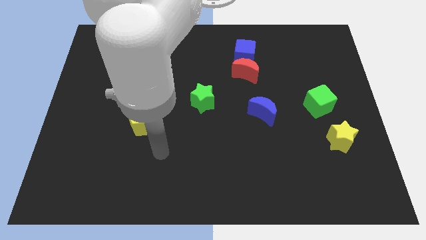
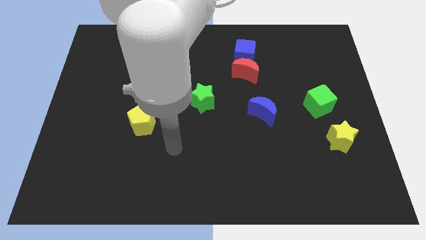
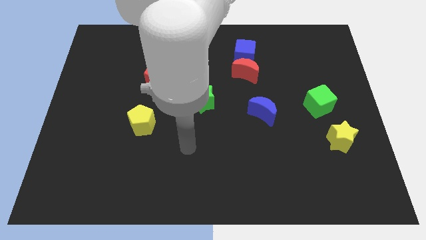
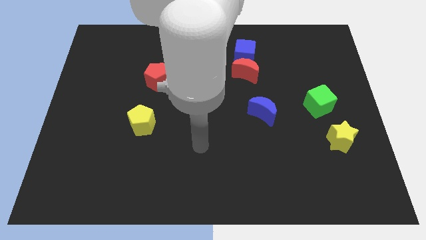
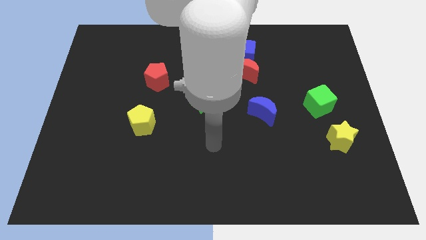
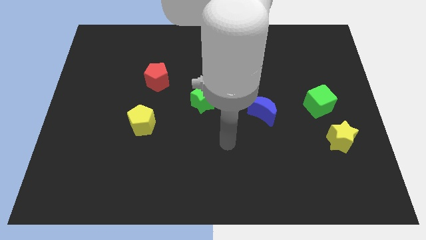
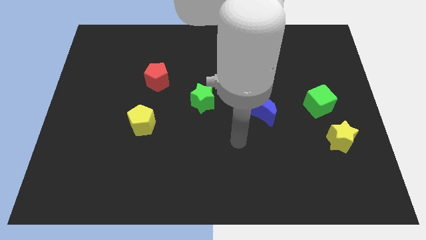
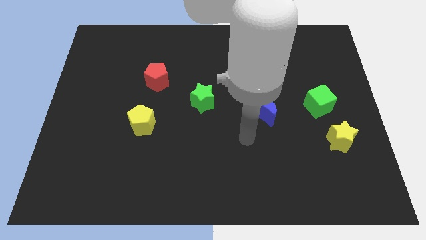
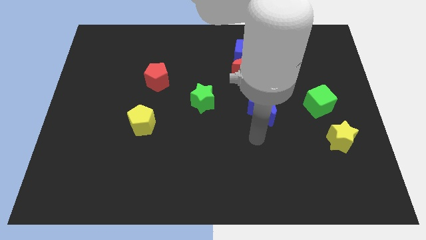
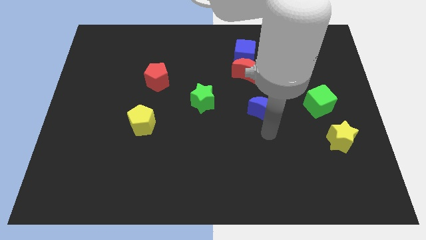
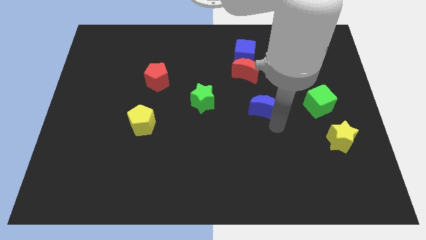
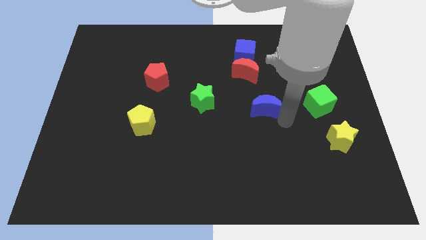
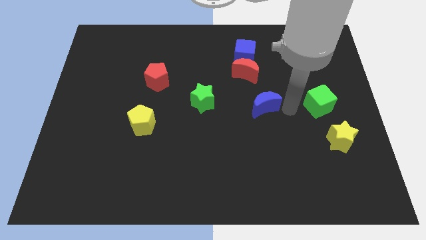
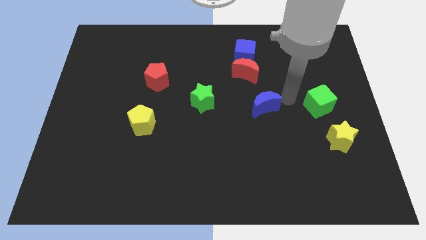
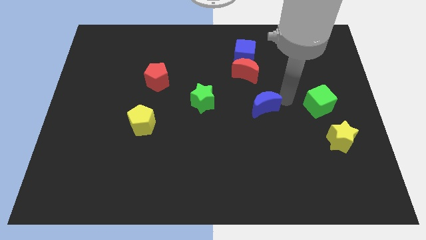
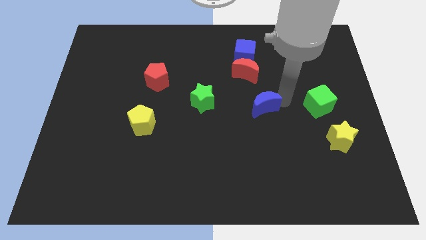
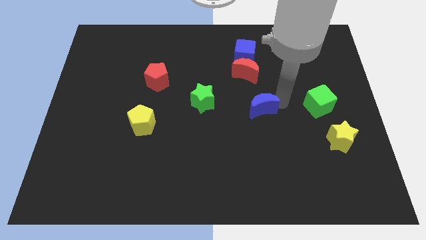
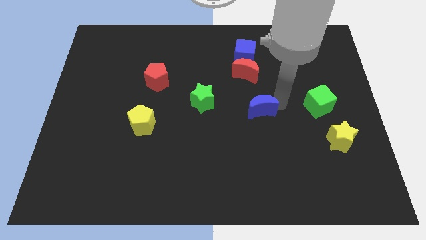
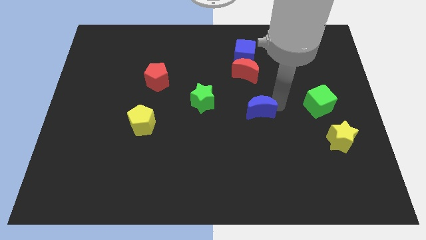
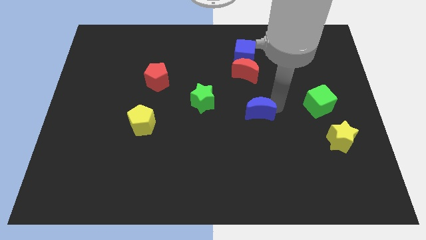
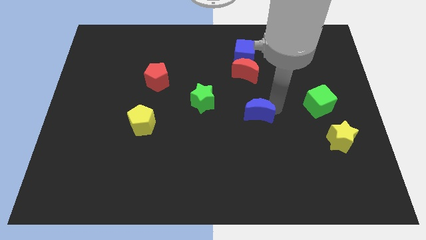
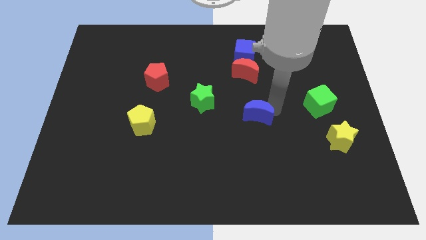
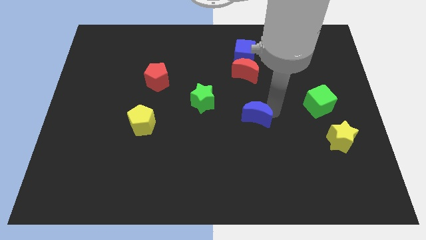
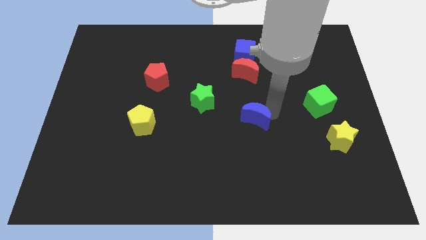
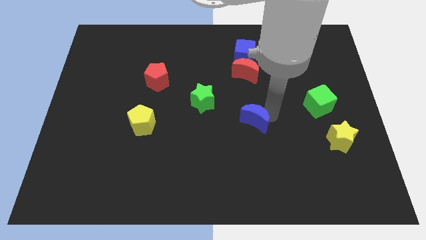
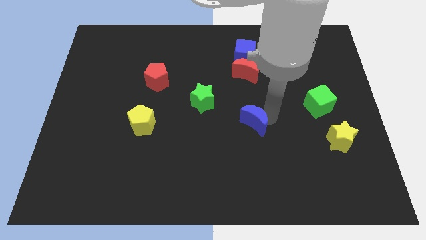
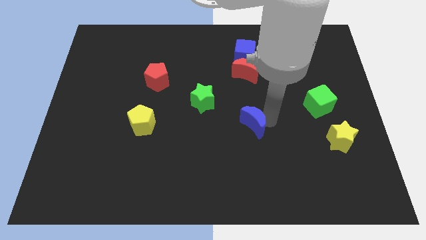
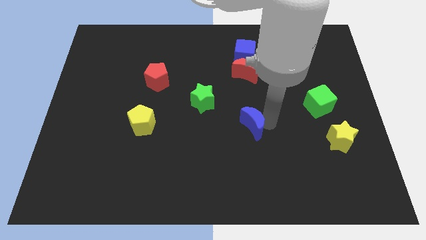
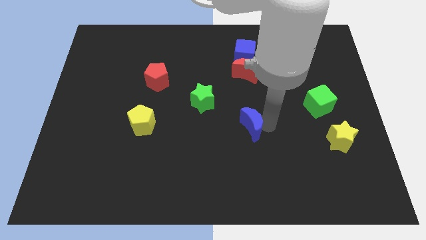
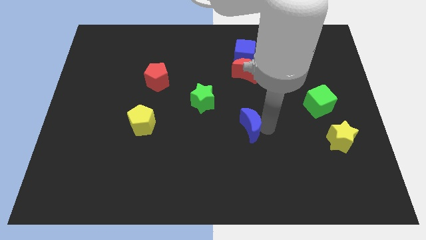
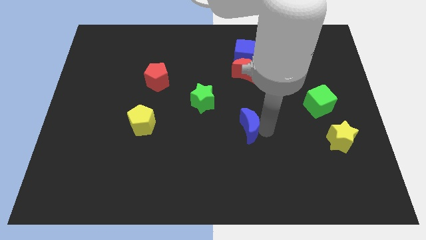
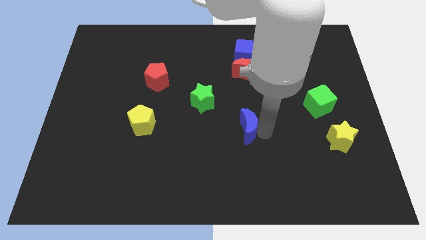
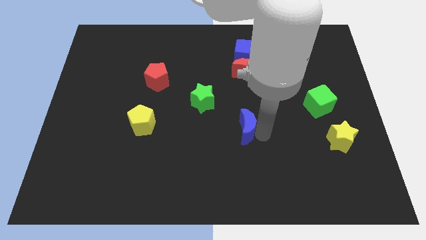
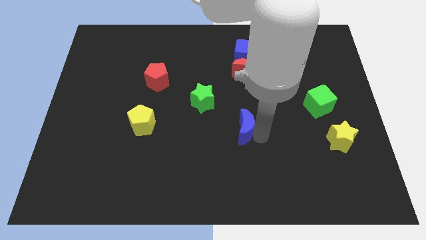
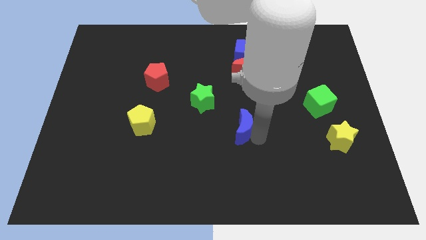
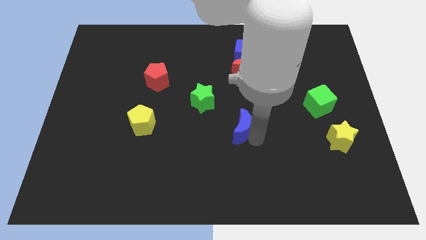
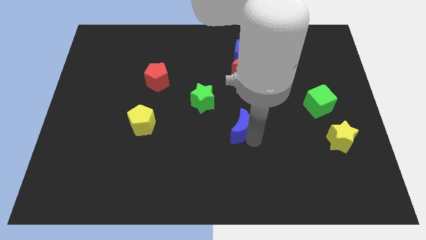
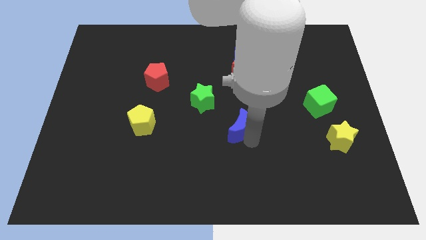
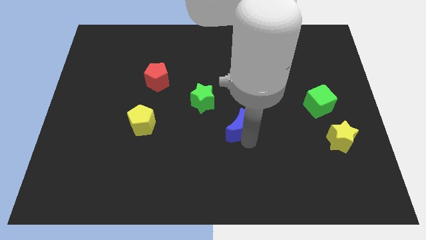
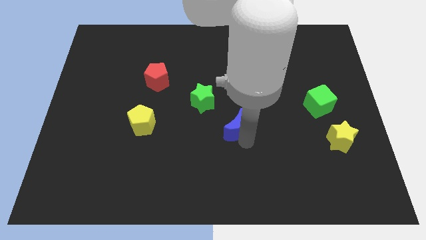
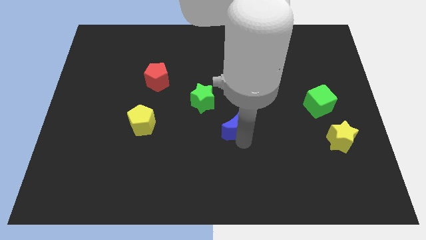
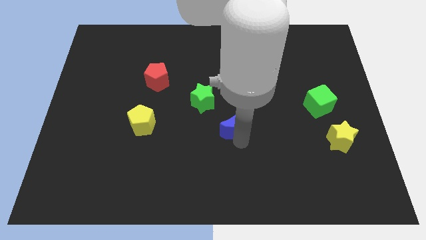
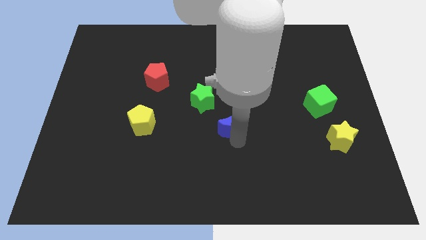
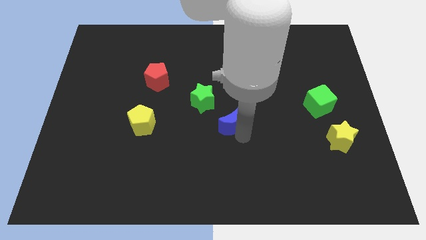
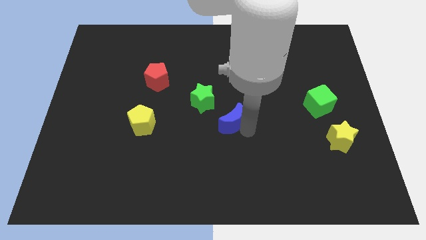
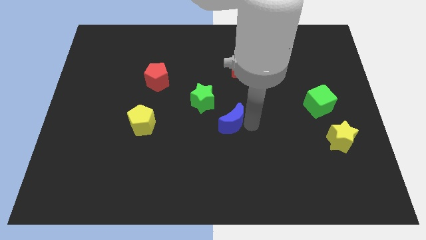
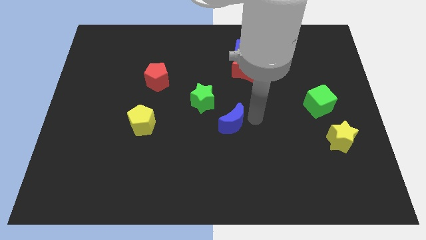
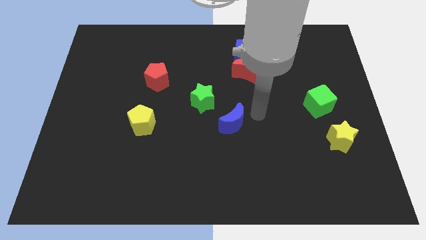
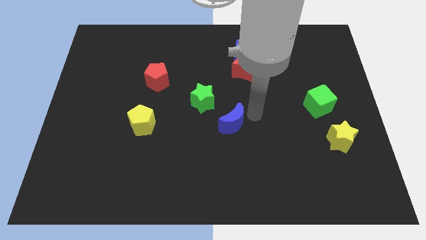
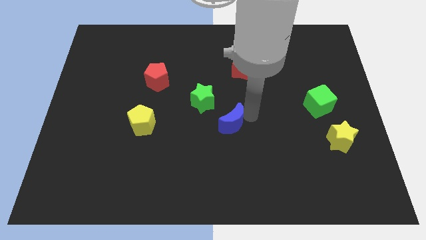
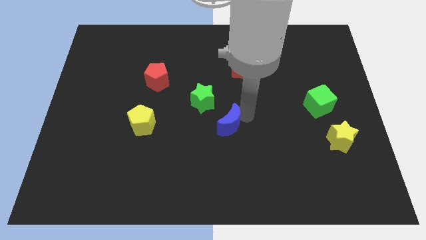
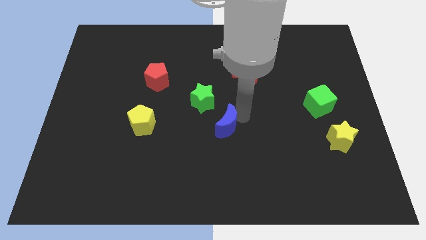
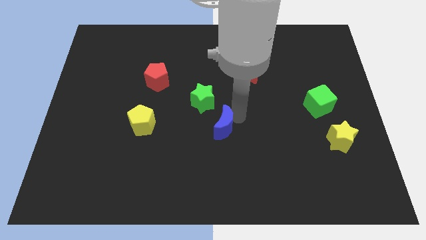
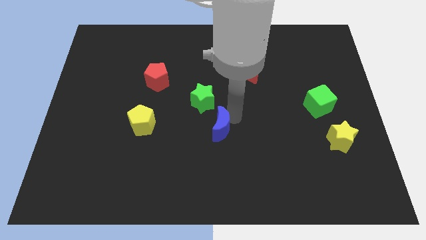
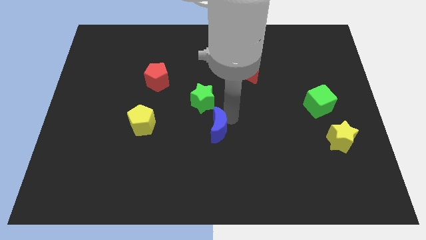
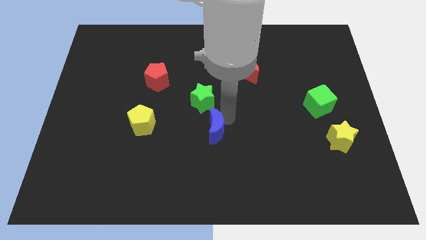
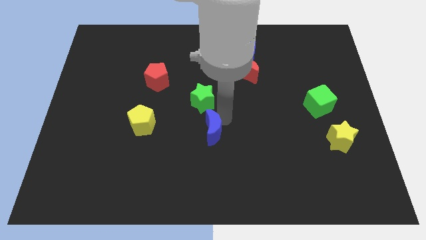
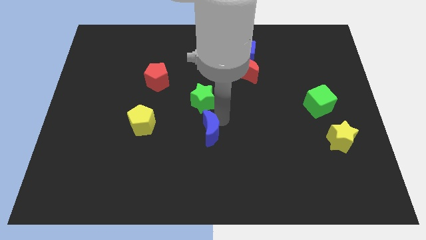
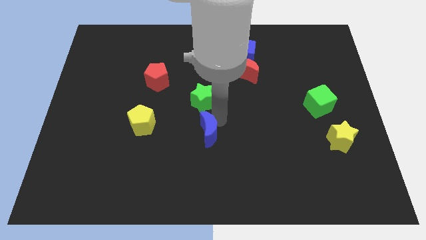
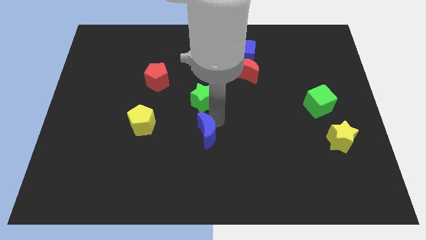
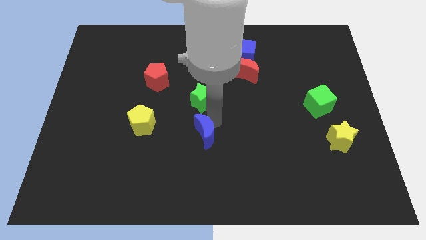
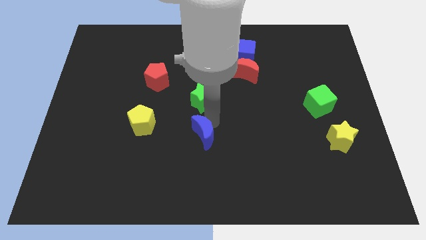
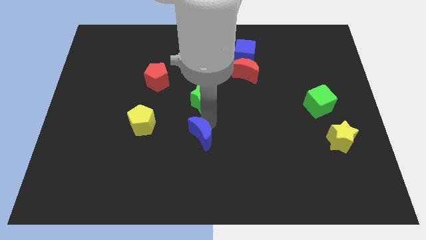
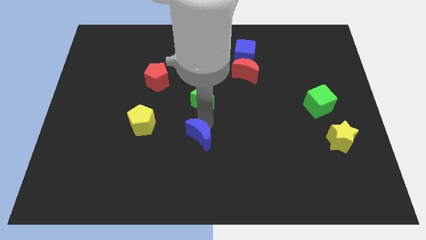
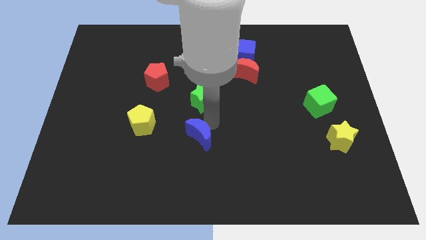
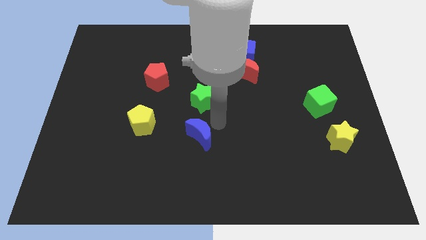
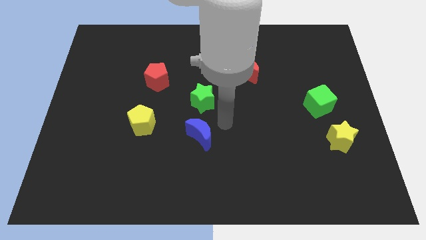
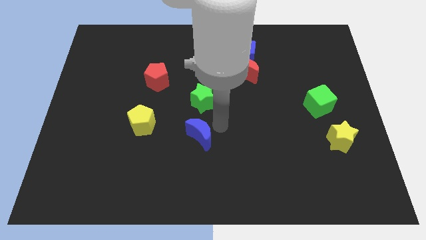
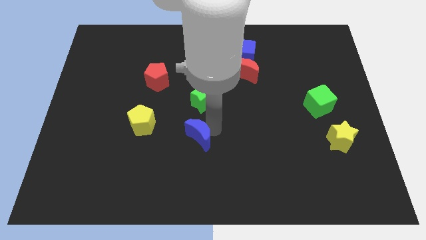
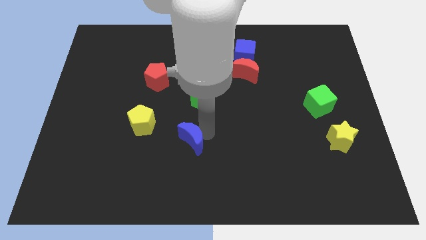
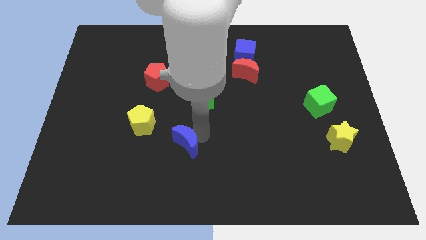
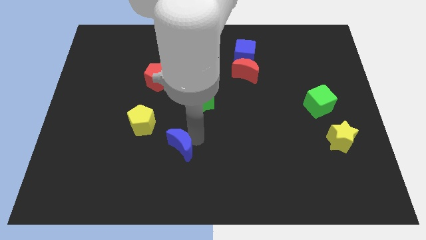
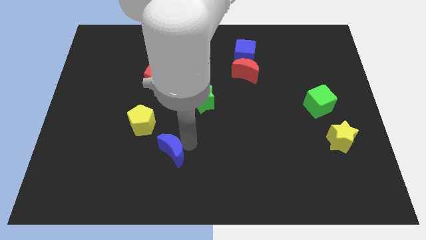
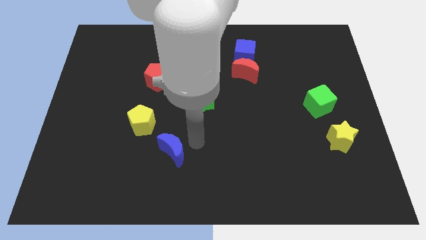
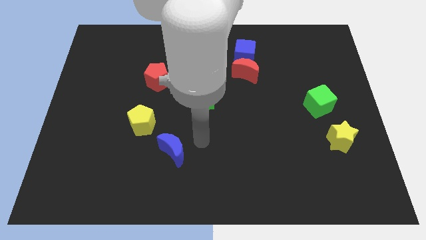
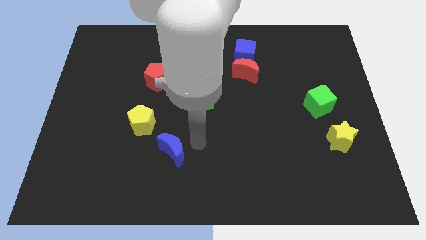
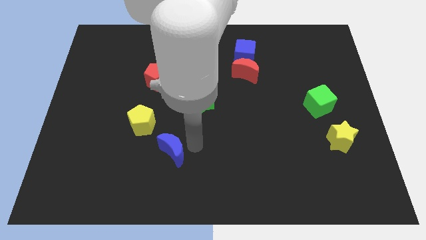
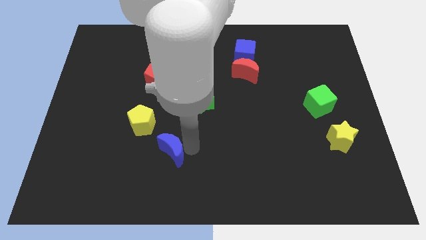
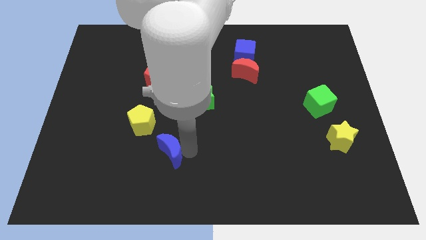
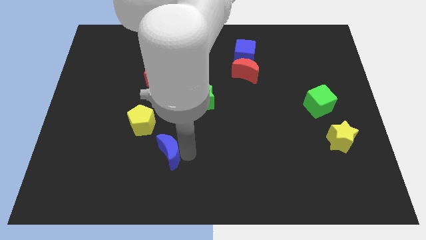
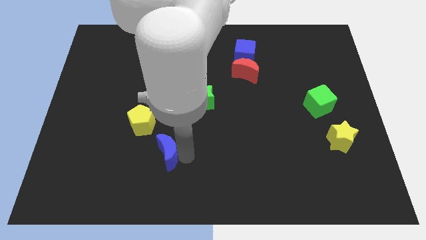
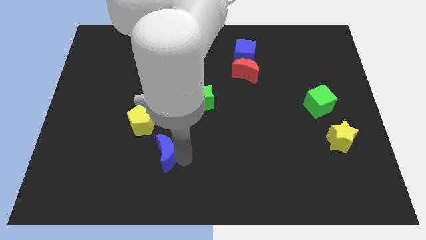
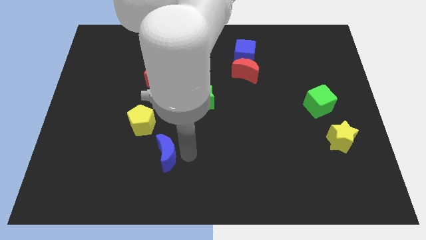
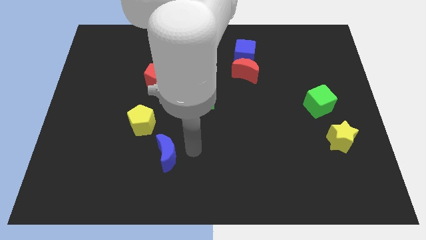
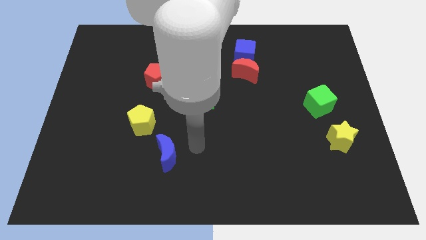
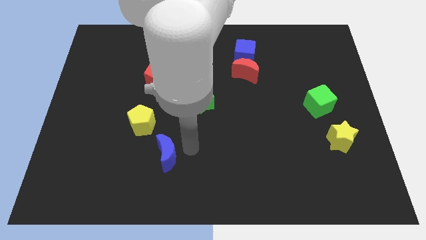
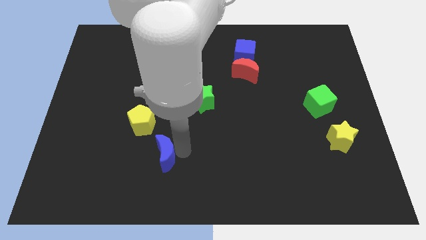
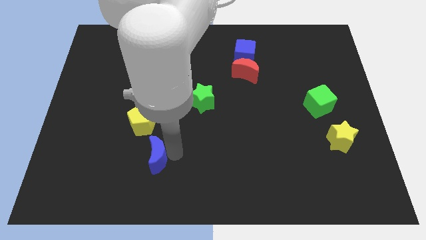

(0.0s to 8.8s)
put the blue moon to the bottom of the yellow pentagon
